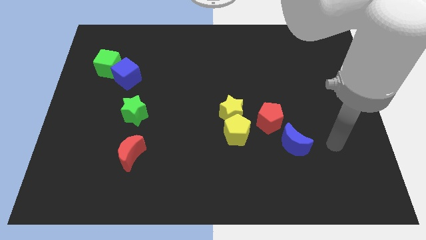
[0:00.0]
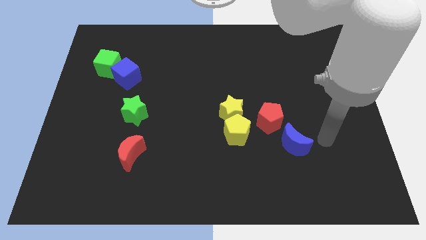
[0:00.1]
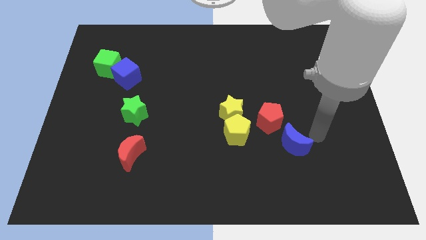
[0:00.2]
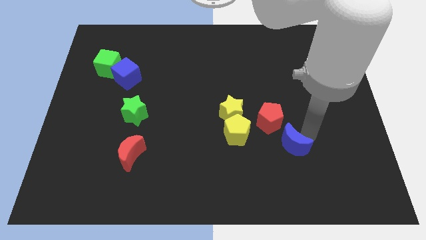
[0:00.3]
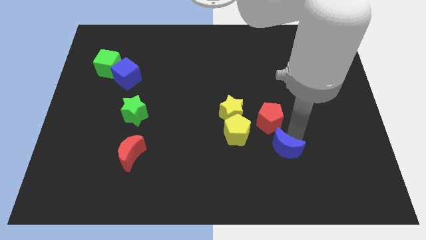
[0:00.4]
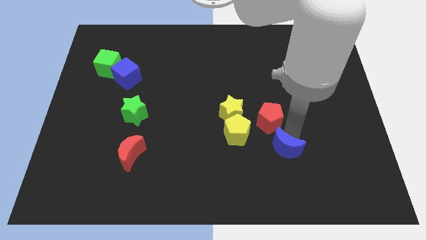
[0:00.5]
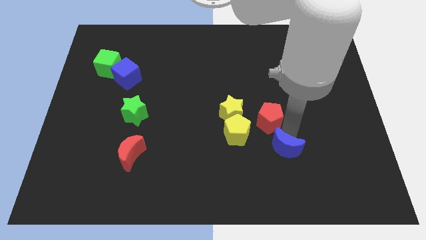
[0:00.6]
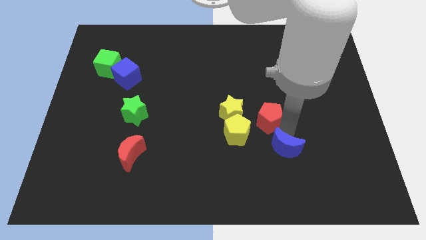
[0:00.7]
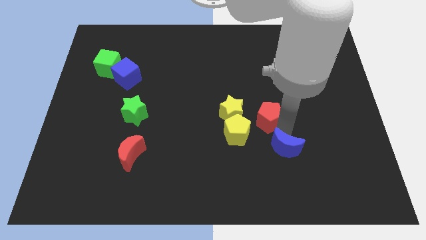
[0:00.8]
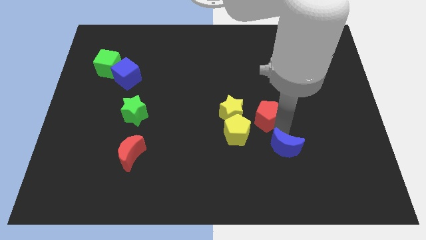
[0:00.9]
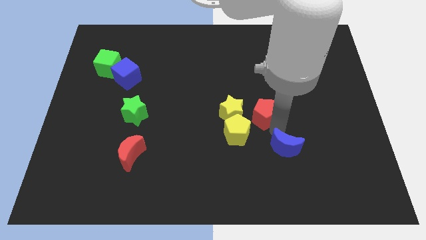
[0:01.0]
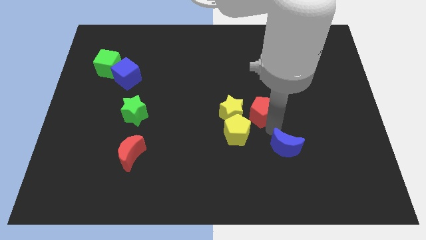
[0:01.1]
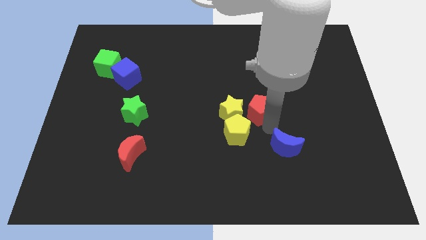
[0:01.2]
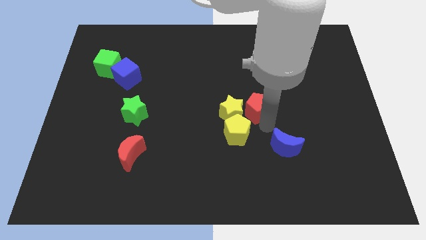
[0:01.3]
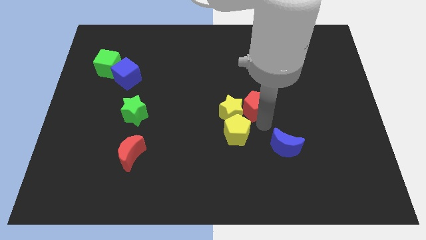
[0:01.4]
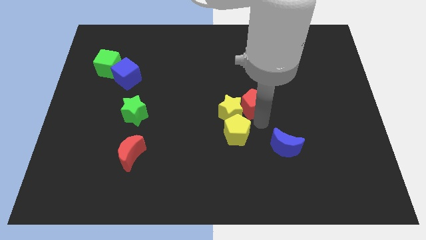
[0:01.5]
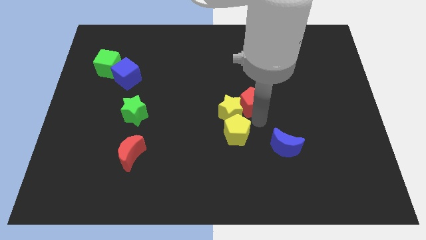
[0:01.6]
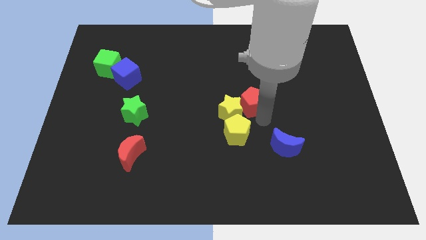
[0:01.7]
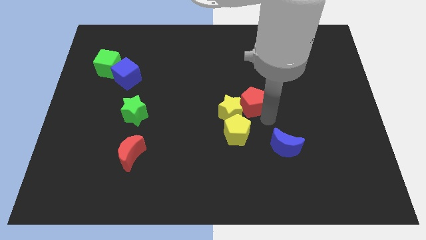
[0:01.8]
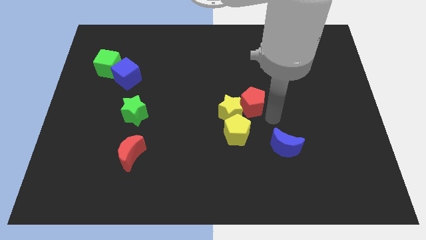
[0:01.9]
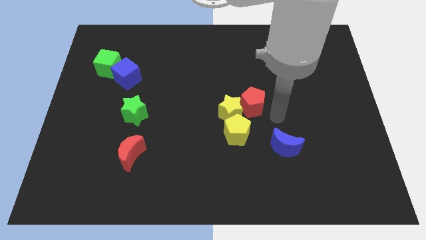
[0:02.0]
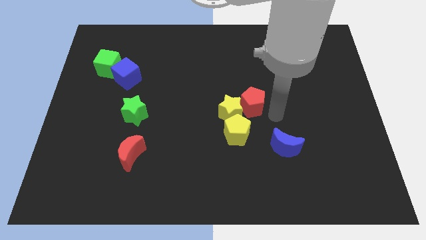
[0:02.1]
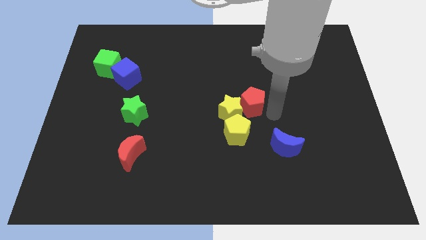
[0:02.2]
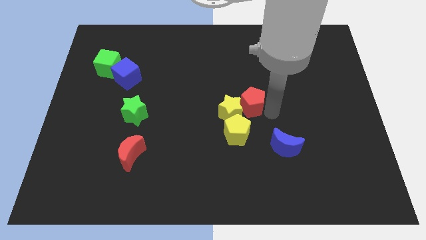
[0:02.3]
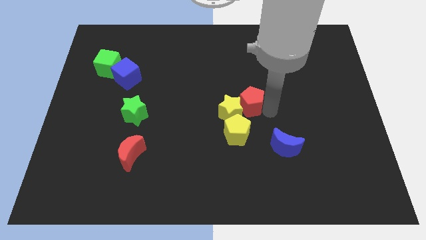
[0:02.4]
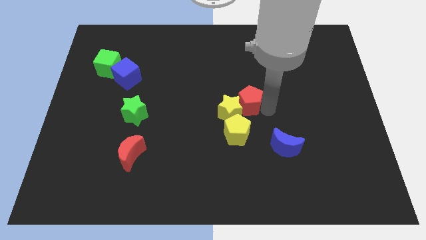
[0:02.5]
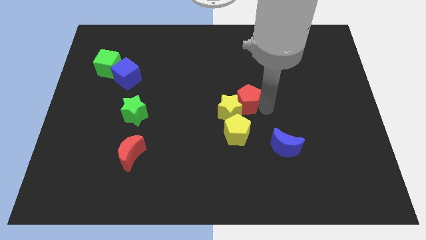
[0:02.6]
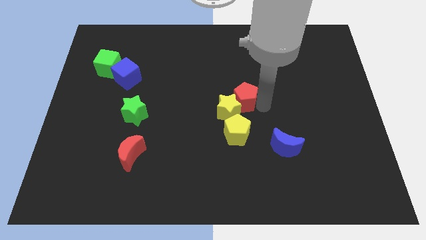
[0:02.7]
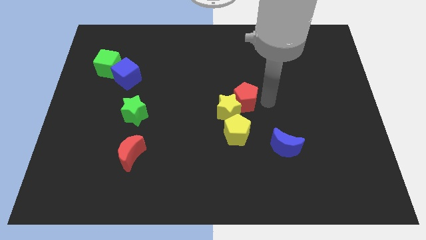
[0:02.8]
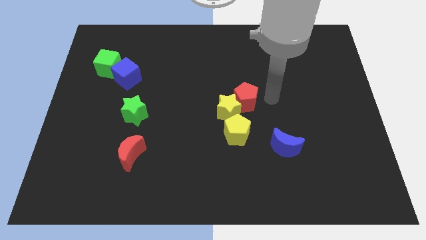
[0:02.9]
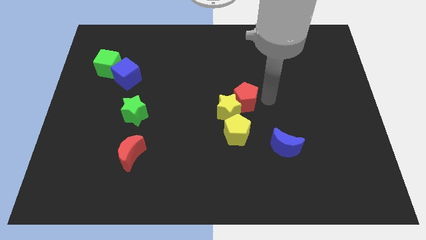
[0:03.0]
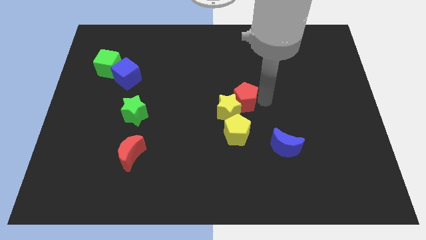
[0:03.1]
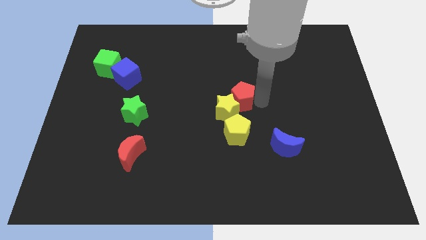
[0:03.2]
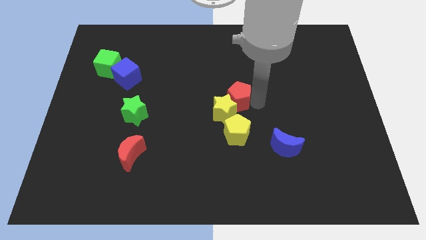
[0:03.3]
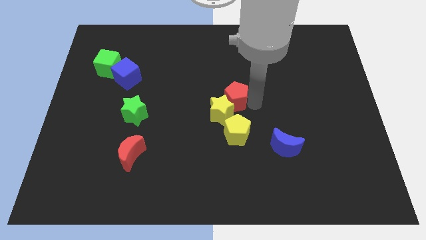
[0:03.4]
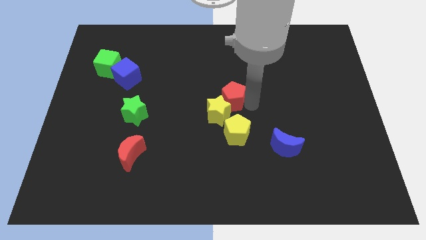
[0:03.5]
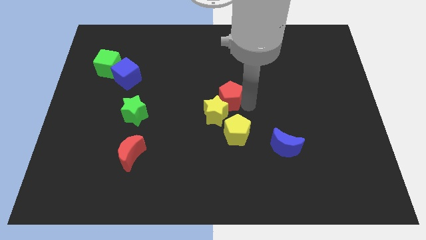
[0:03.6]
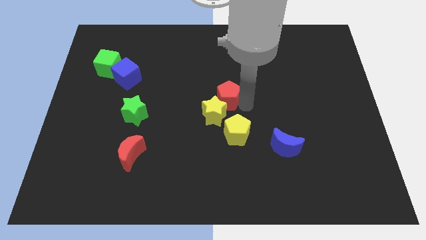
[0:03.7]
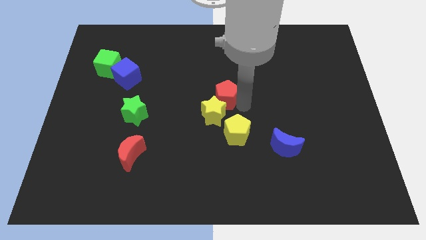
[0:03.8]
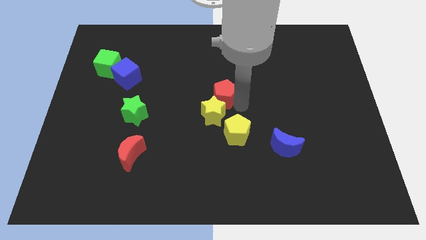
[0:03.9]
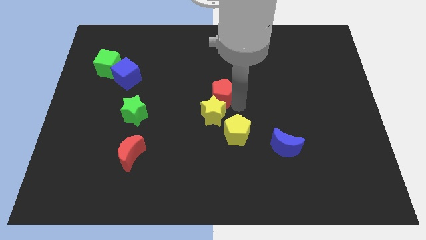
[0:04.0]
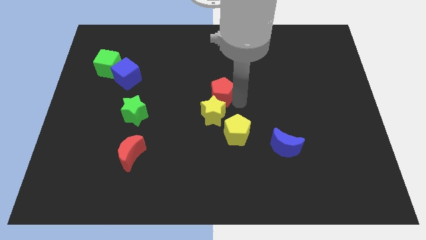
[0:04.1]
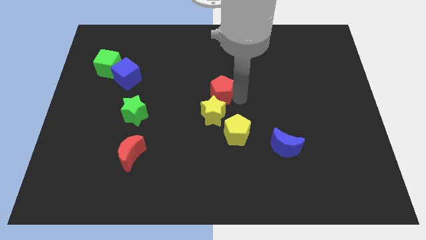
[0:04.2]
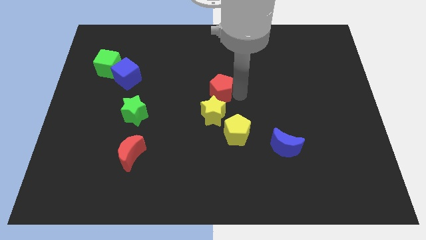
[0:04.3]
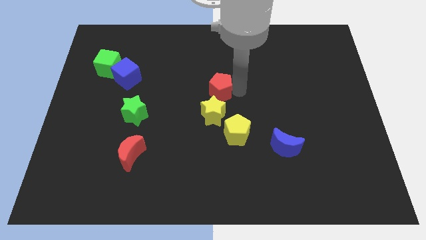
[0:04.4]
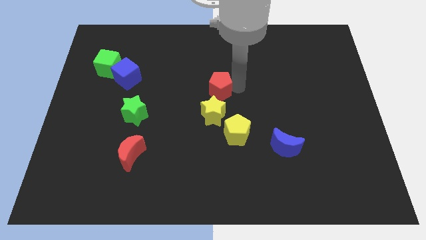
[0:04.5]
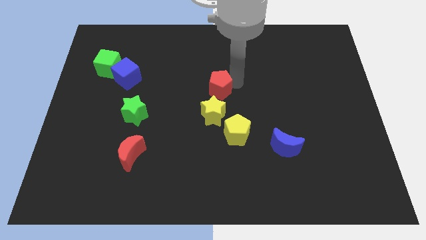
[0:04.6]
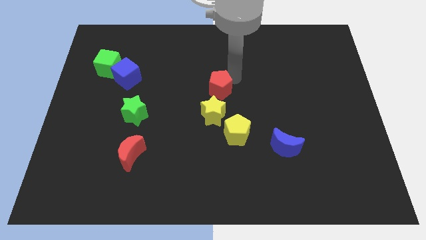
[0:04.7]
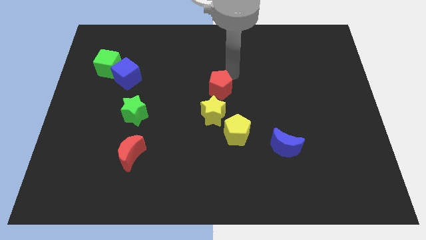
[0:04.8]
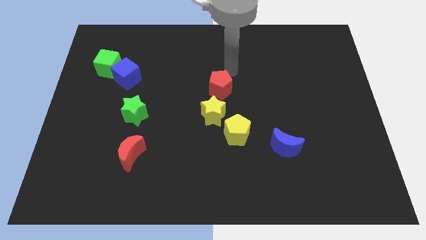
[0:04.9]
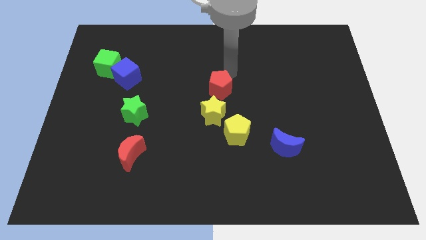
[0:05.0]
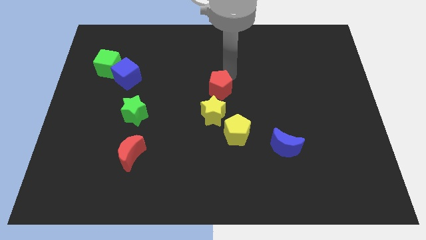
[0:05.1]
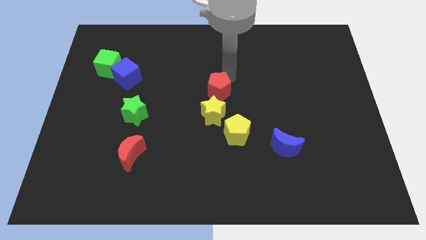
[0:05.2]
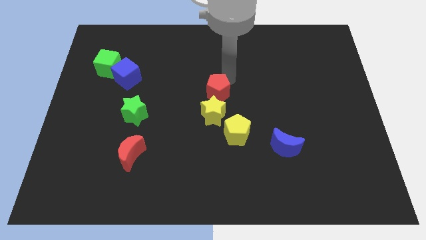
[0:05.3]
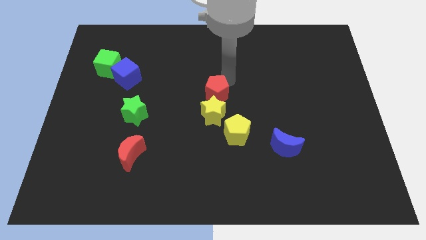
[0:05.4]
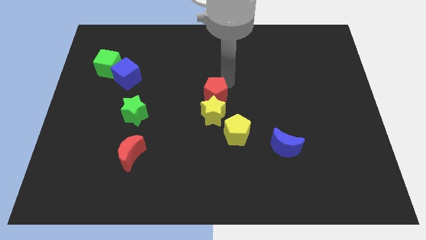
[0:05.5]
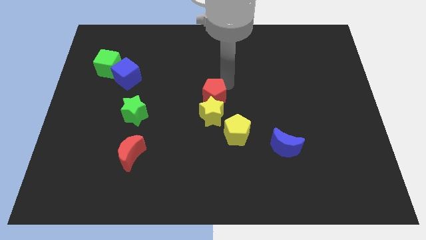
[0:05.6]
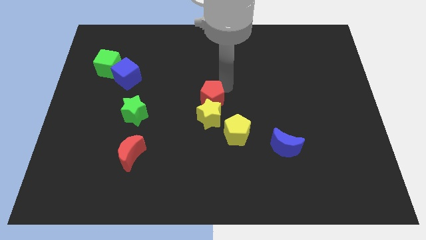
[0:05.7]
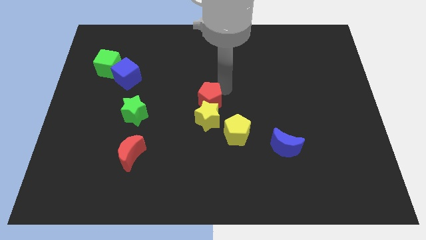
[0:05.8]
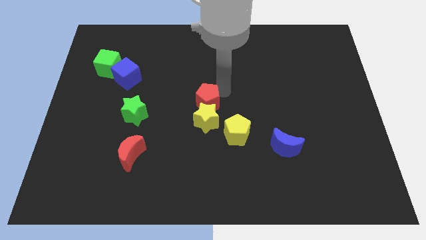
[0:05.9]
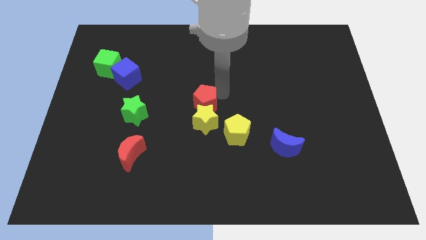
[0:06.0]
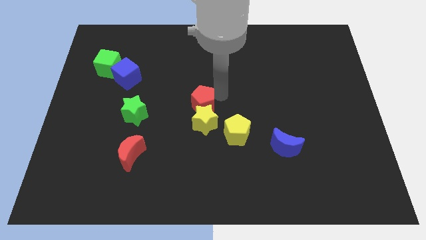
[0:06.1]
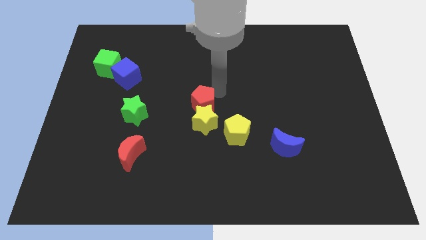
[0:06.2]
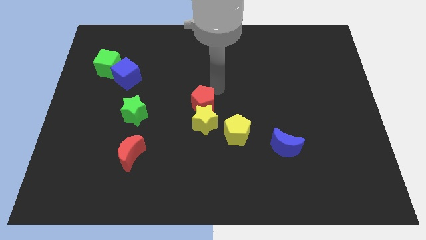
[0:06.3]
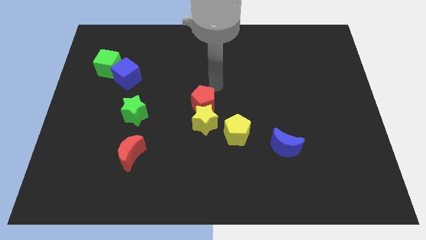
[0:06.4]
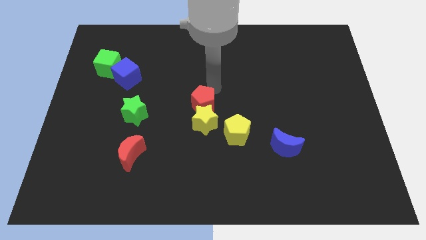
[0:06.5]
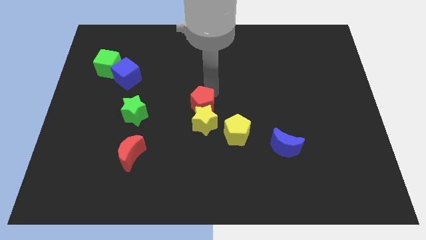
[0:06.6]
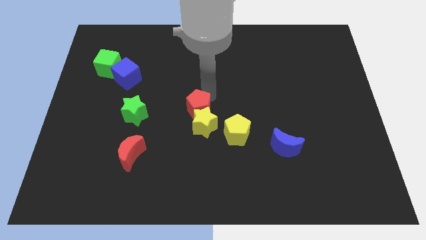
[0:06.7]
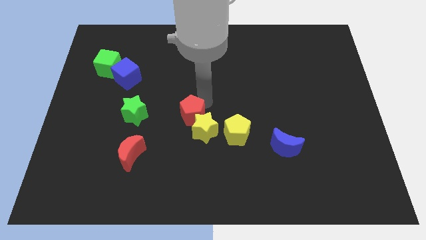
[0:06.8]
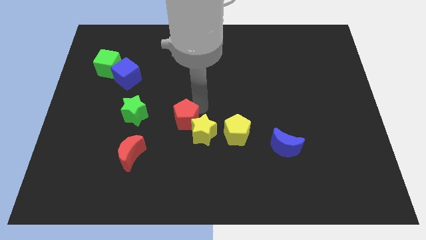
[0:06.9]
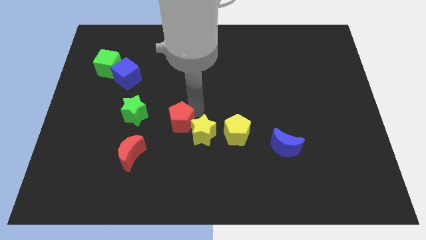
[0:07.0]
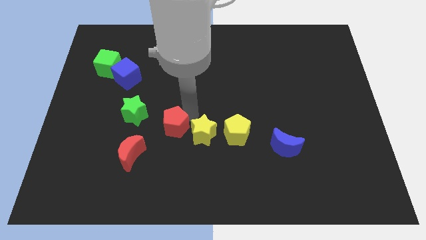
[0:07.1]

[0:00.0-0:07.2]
put the red pentagon to the bottom right of the green star
